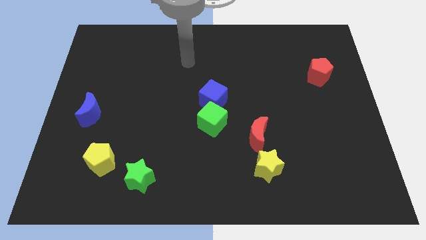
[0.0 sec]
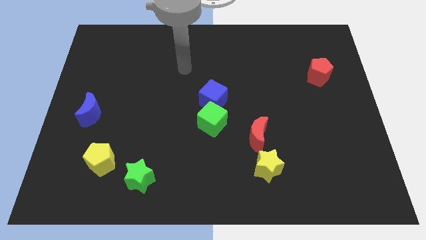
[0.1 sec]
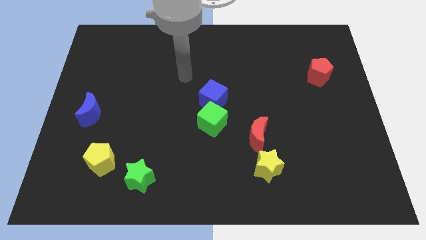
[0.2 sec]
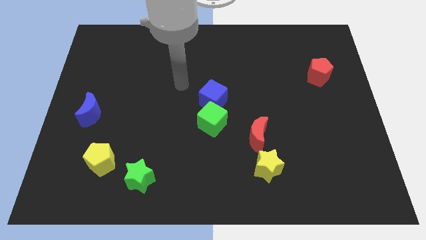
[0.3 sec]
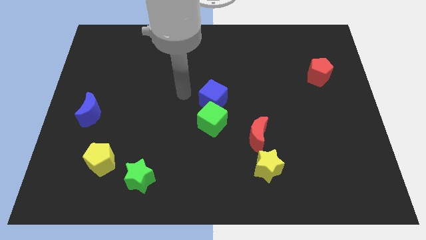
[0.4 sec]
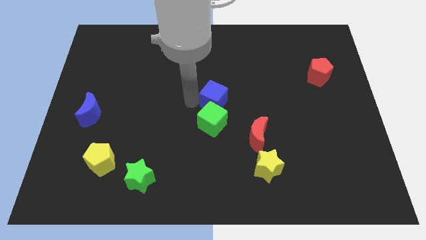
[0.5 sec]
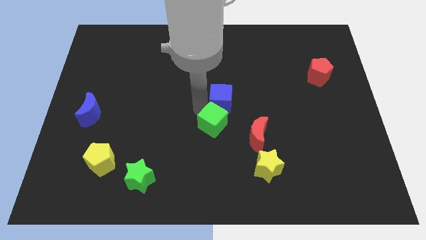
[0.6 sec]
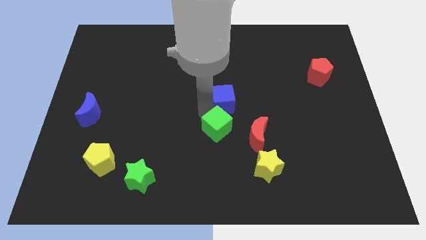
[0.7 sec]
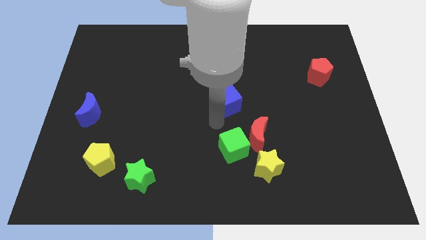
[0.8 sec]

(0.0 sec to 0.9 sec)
pull the blue cube apart from the green cube

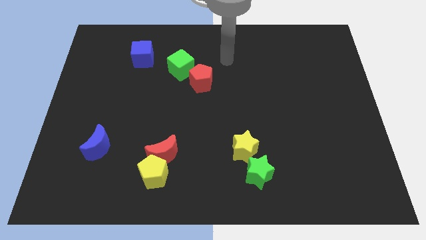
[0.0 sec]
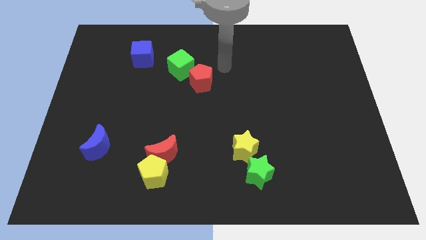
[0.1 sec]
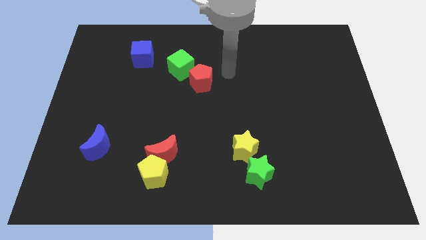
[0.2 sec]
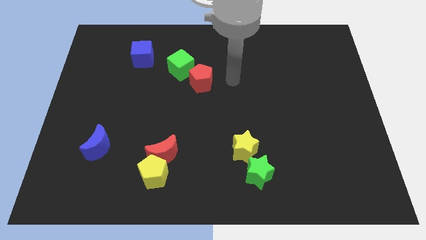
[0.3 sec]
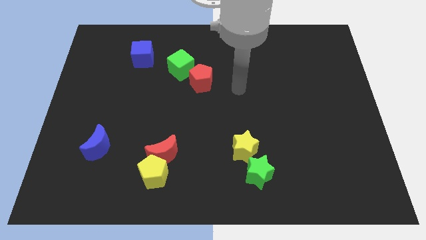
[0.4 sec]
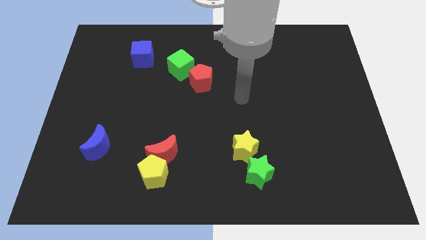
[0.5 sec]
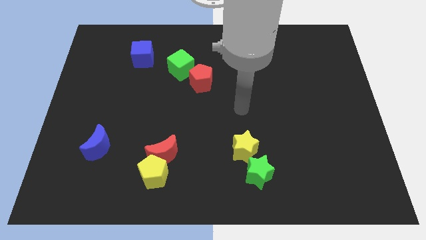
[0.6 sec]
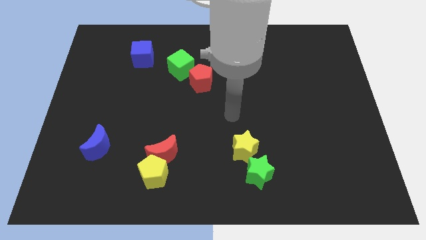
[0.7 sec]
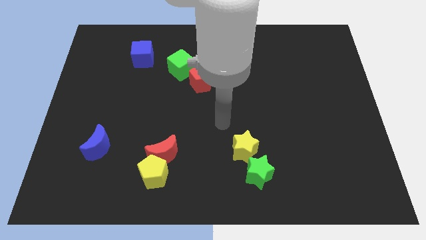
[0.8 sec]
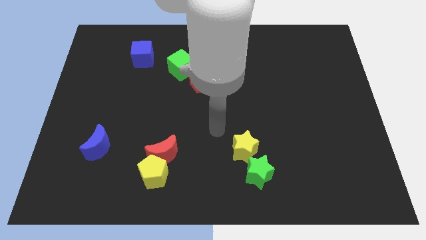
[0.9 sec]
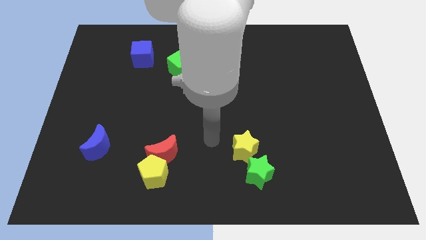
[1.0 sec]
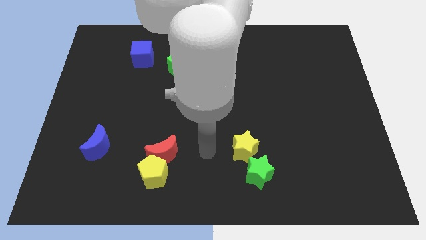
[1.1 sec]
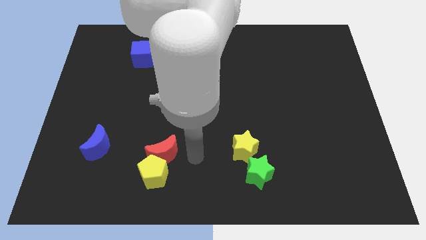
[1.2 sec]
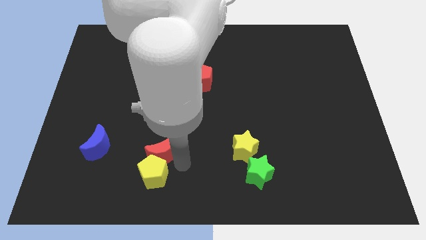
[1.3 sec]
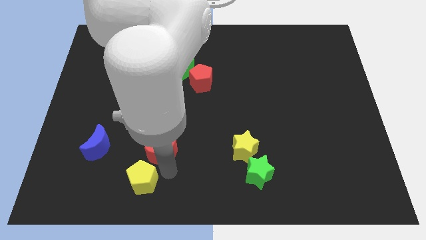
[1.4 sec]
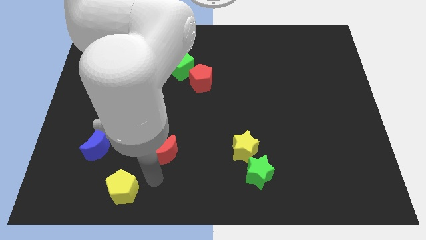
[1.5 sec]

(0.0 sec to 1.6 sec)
separate the red moon from the yellow pentagon

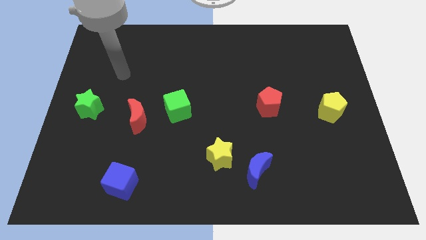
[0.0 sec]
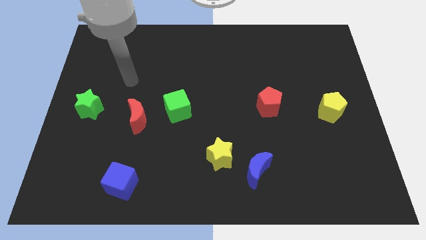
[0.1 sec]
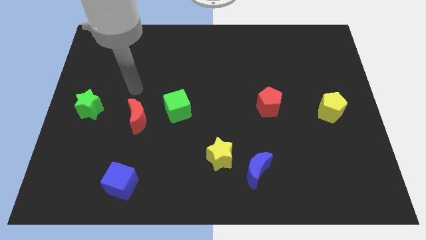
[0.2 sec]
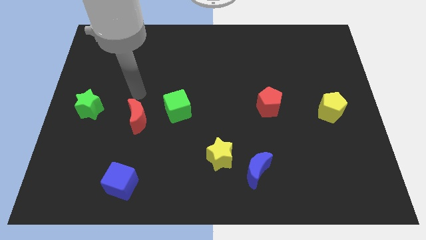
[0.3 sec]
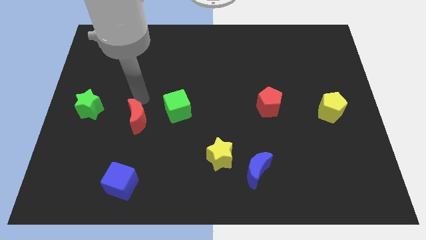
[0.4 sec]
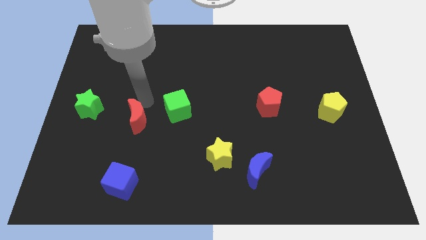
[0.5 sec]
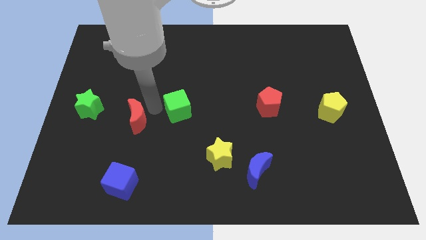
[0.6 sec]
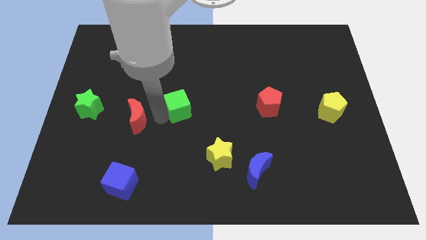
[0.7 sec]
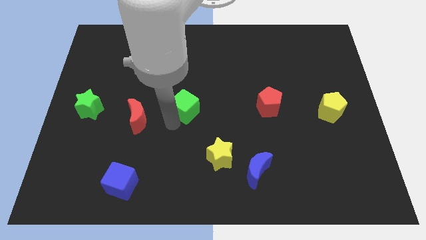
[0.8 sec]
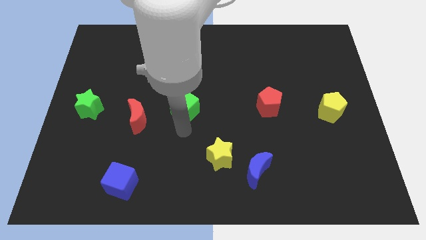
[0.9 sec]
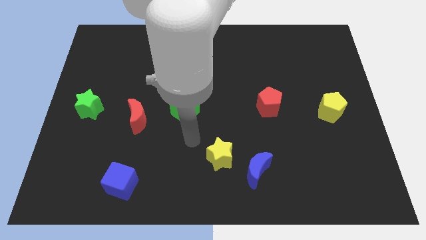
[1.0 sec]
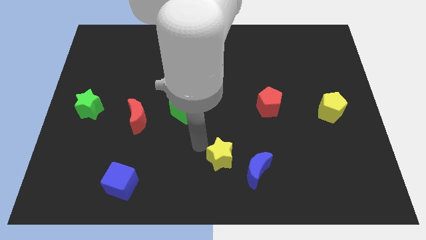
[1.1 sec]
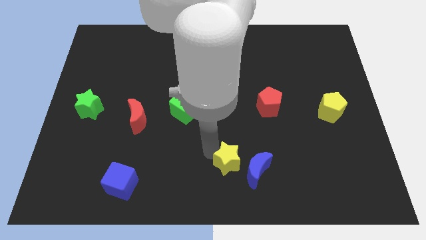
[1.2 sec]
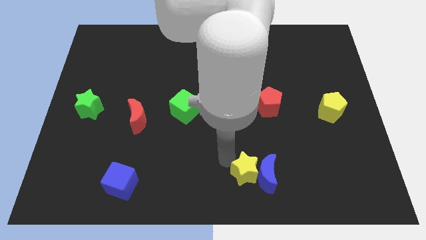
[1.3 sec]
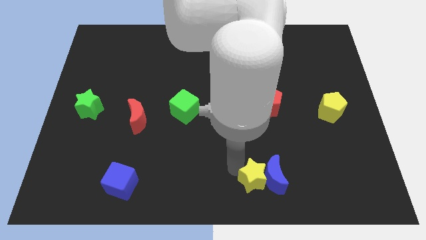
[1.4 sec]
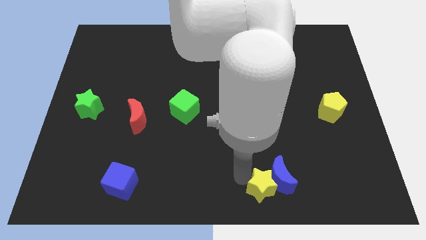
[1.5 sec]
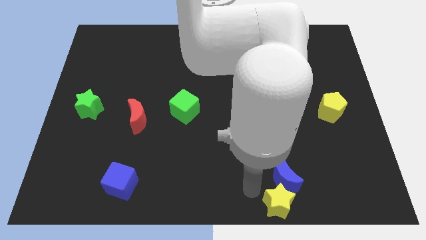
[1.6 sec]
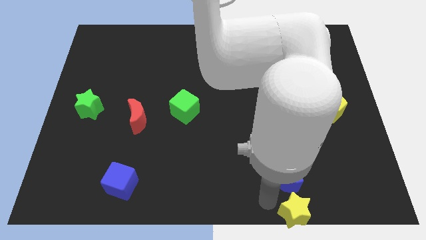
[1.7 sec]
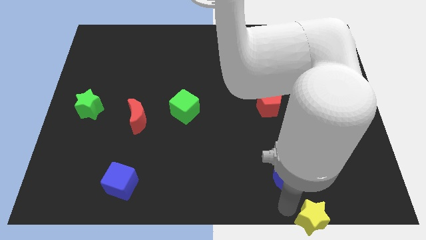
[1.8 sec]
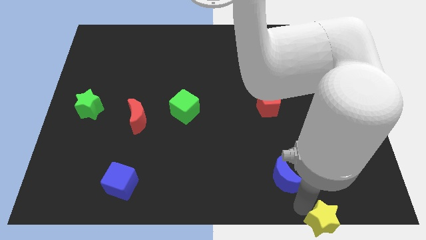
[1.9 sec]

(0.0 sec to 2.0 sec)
separate the blue moon from the yellow star

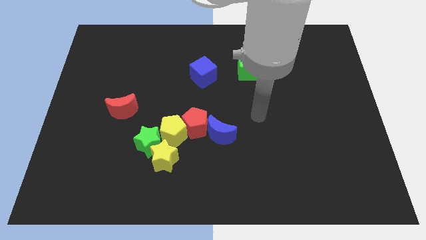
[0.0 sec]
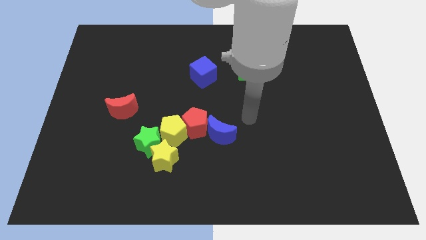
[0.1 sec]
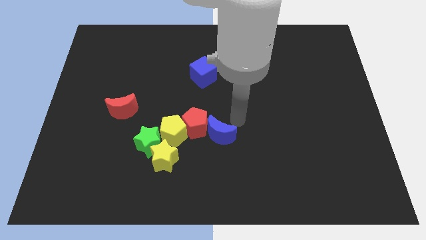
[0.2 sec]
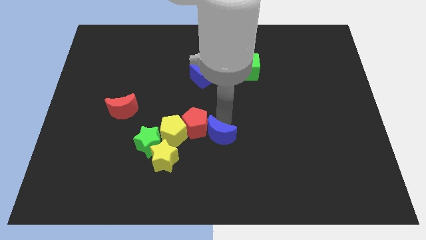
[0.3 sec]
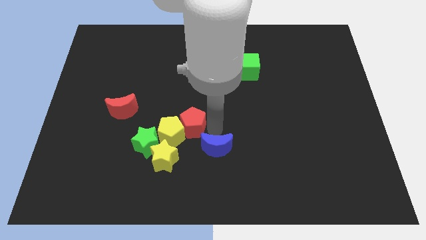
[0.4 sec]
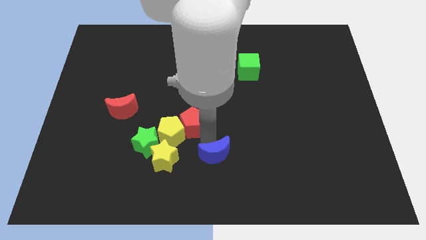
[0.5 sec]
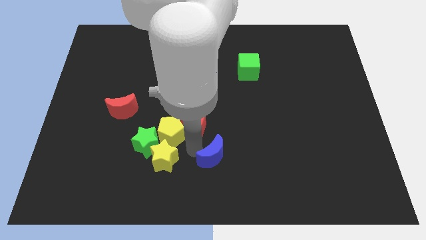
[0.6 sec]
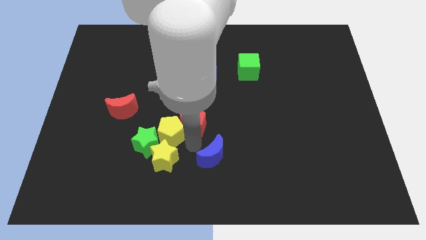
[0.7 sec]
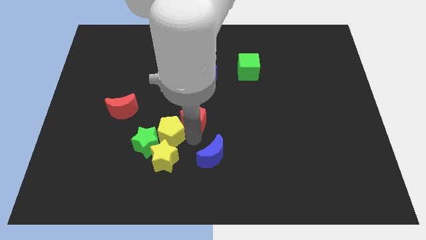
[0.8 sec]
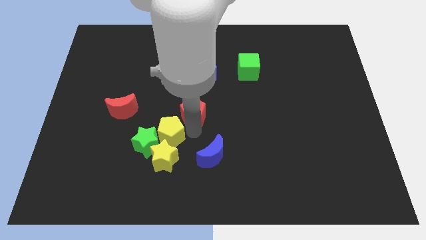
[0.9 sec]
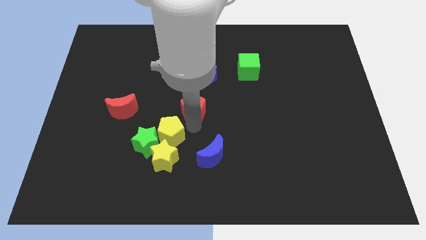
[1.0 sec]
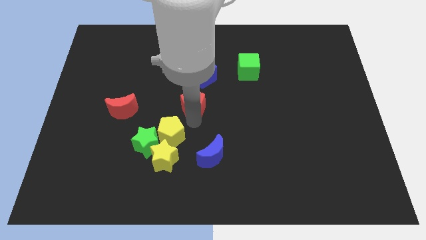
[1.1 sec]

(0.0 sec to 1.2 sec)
move the red pentagon away from the yellow pentagon and blue moon

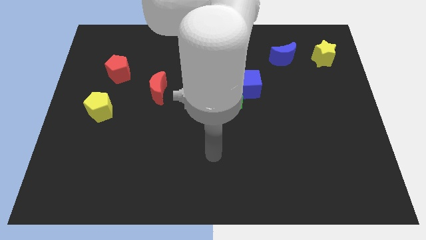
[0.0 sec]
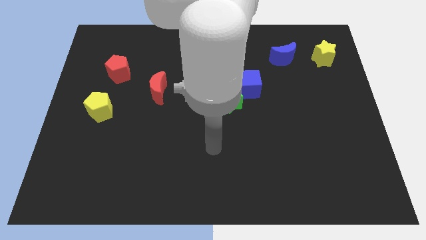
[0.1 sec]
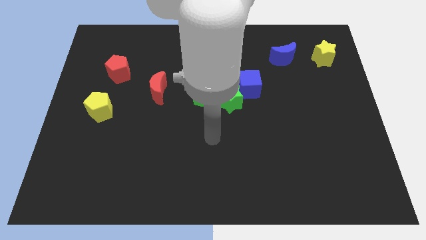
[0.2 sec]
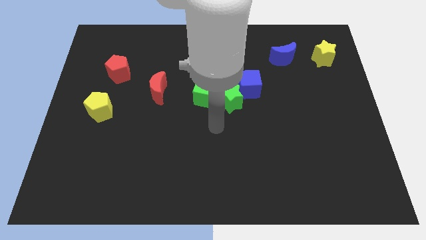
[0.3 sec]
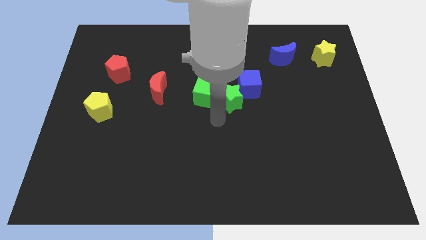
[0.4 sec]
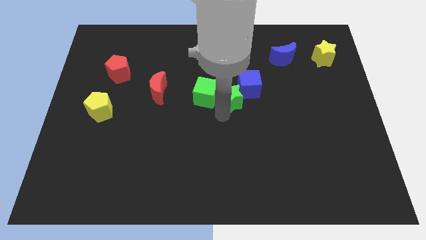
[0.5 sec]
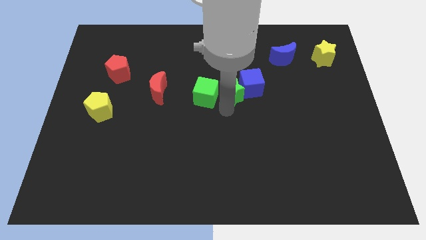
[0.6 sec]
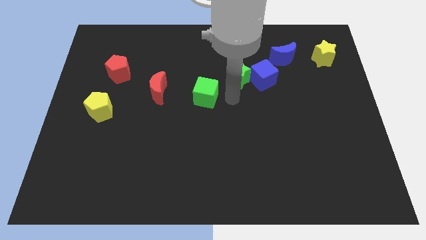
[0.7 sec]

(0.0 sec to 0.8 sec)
pull the green cube apart from the green star

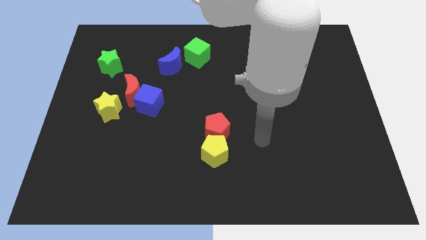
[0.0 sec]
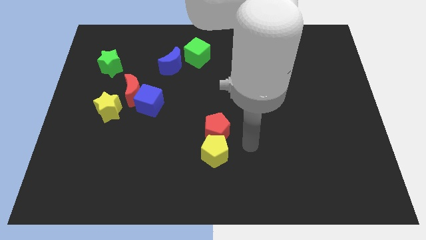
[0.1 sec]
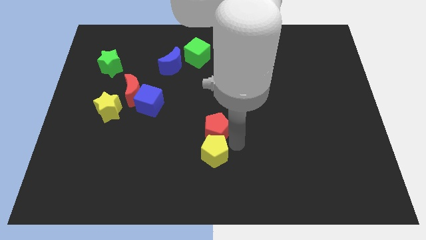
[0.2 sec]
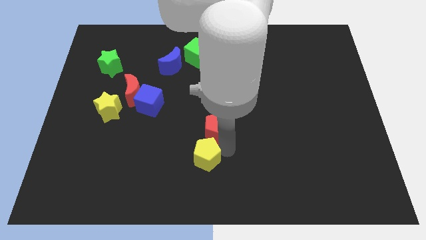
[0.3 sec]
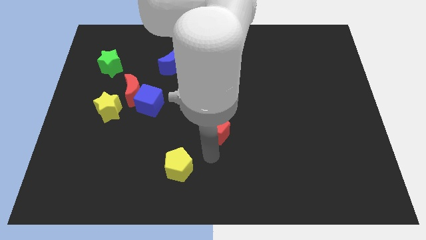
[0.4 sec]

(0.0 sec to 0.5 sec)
pull the red pentagon apart from the yellow pentagon

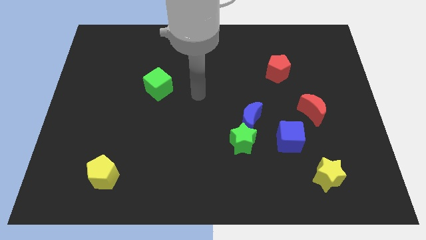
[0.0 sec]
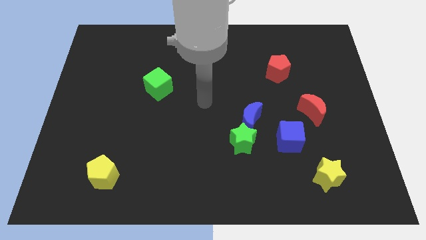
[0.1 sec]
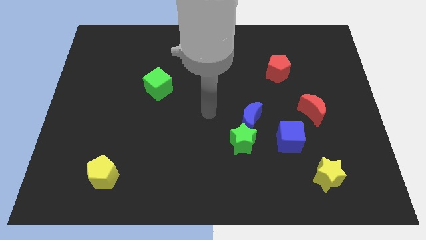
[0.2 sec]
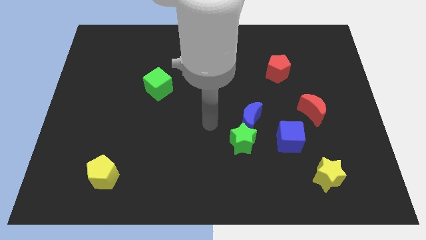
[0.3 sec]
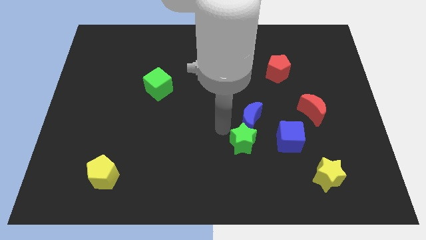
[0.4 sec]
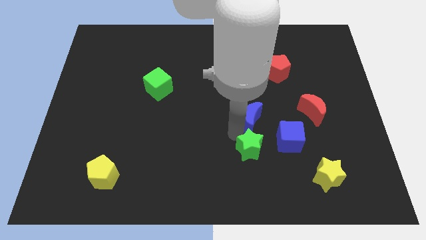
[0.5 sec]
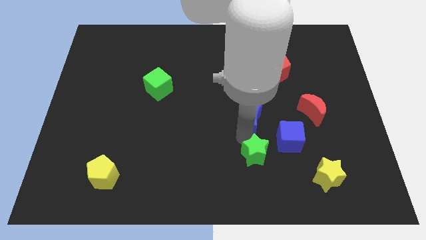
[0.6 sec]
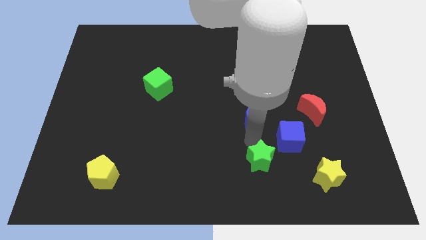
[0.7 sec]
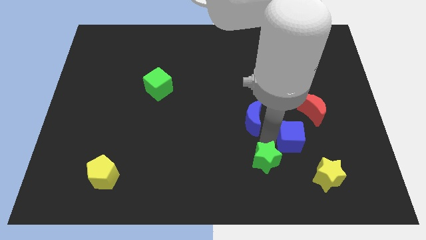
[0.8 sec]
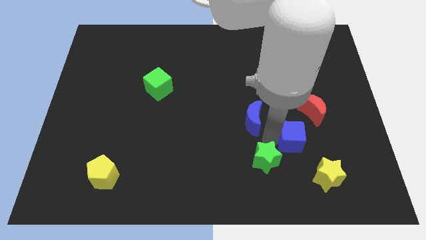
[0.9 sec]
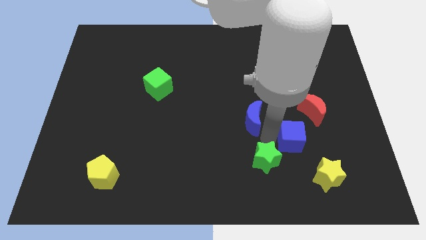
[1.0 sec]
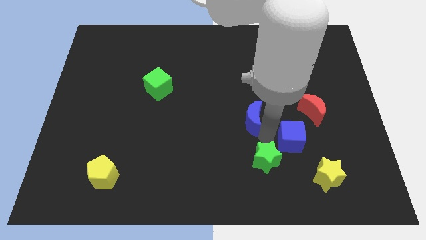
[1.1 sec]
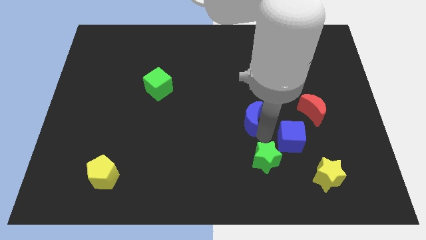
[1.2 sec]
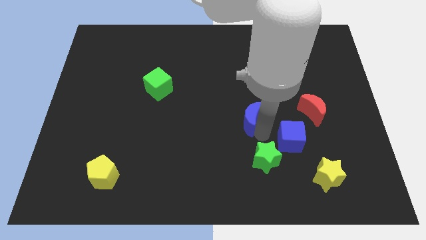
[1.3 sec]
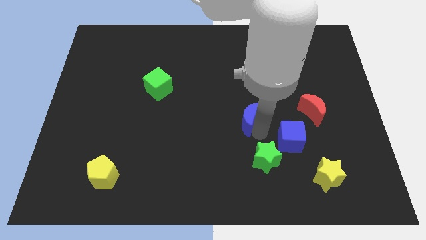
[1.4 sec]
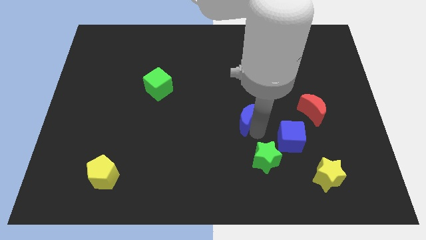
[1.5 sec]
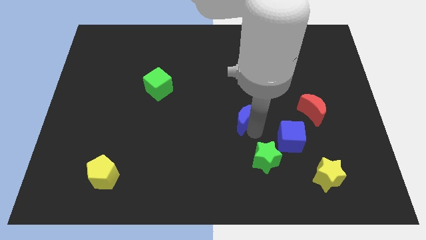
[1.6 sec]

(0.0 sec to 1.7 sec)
move the blue moon away from the green star and blue cube

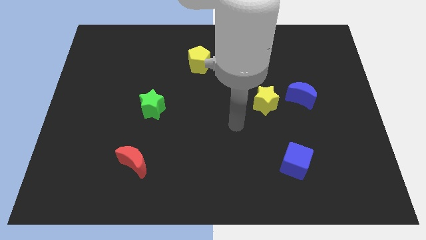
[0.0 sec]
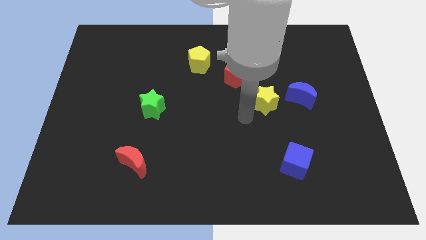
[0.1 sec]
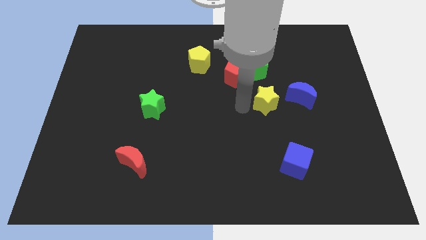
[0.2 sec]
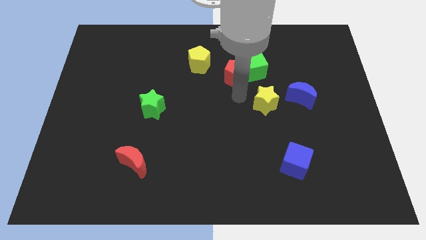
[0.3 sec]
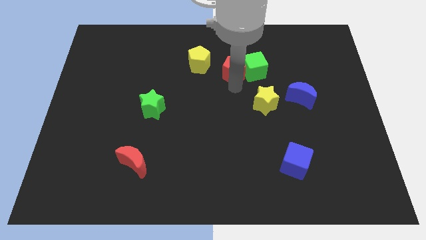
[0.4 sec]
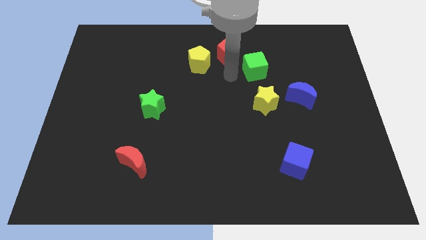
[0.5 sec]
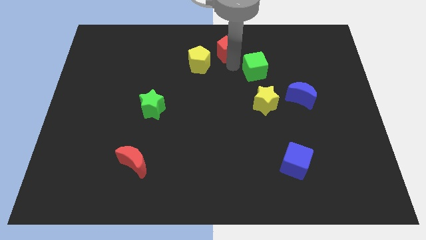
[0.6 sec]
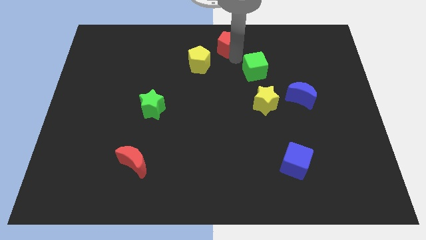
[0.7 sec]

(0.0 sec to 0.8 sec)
move the green cube away from the red pentagon
